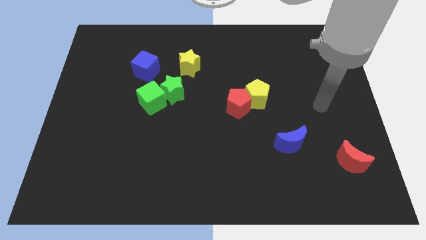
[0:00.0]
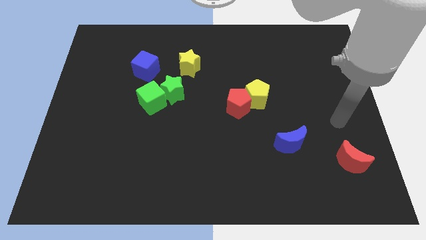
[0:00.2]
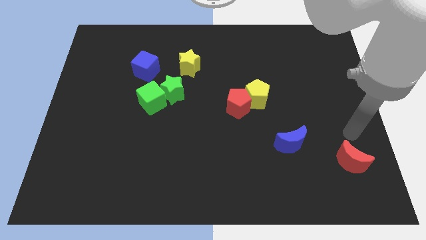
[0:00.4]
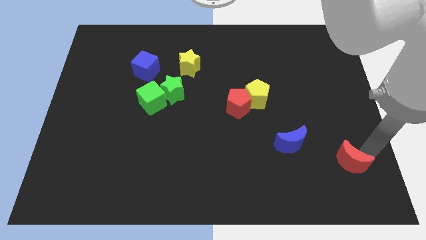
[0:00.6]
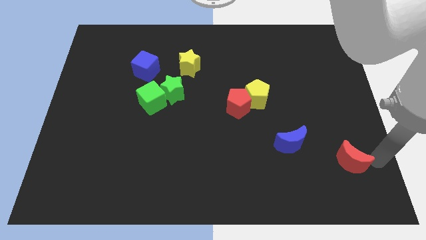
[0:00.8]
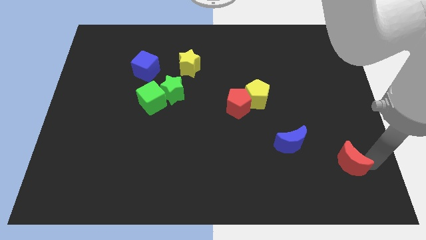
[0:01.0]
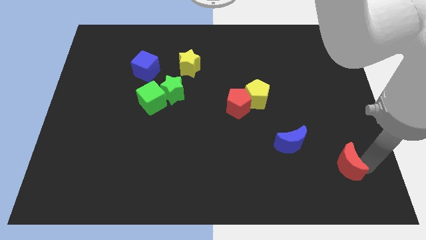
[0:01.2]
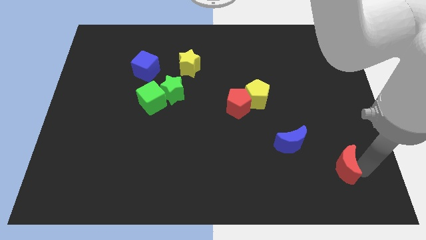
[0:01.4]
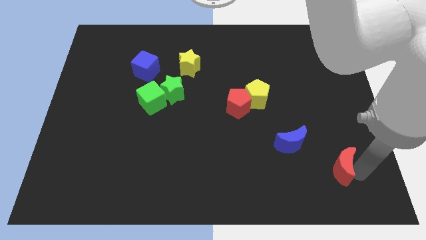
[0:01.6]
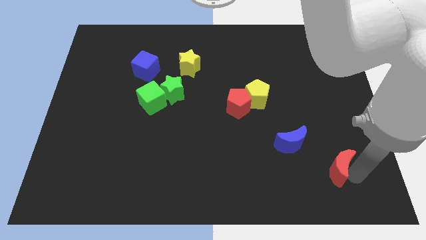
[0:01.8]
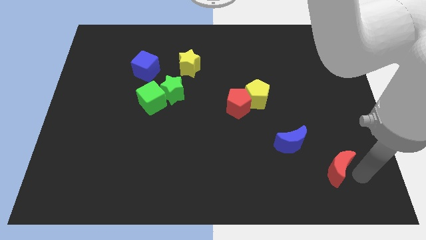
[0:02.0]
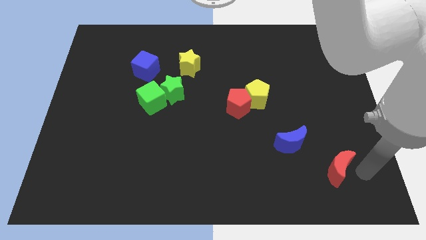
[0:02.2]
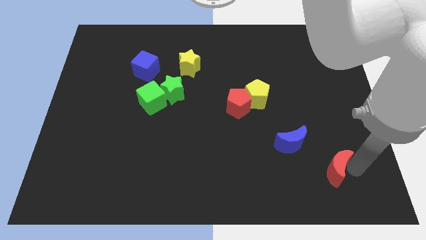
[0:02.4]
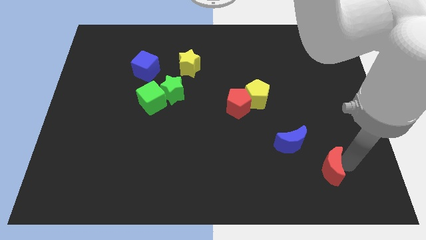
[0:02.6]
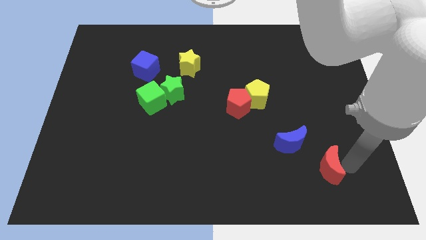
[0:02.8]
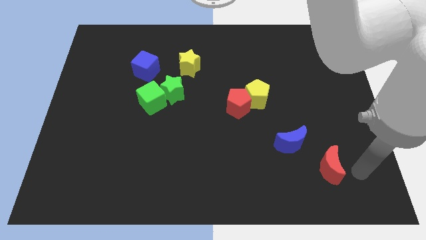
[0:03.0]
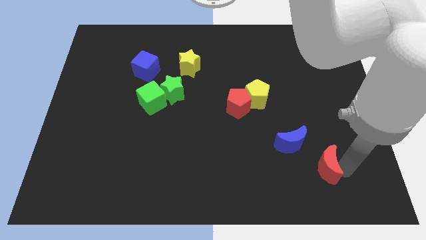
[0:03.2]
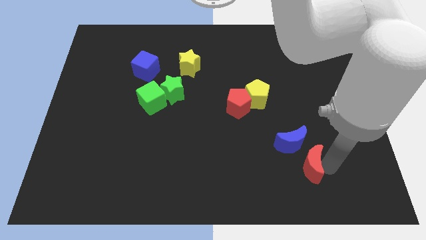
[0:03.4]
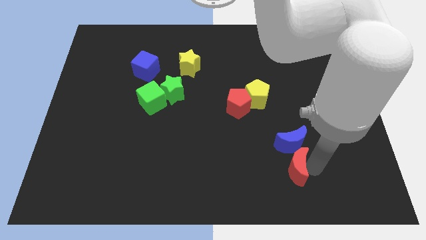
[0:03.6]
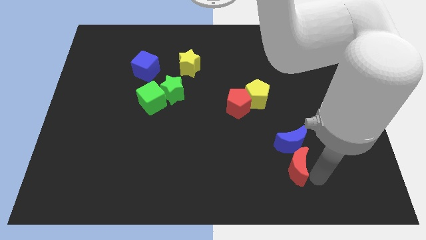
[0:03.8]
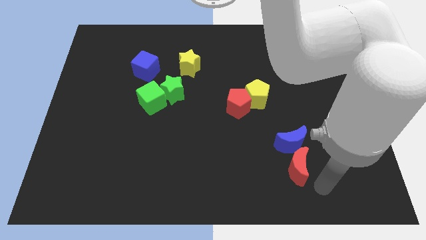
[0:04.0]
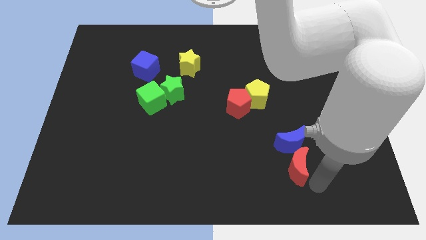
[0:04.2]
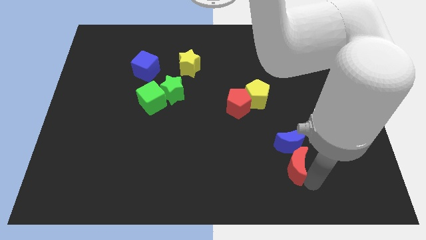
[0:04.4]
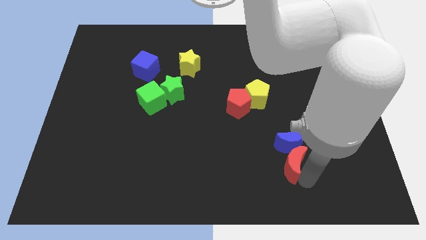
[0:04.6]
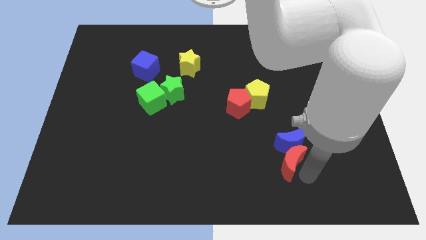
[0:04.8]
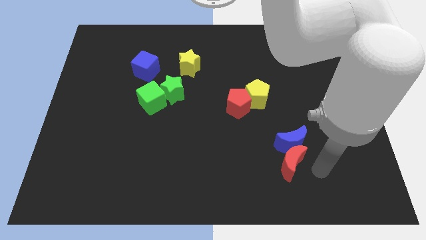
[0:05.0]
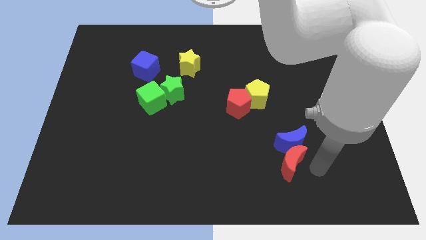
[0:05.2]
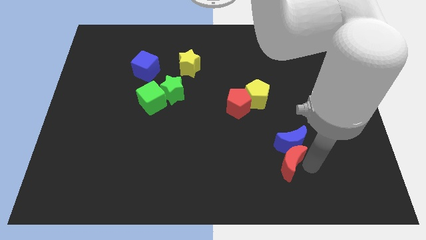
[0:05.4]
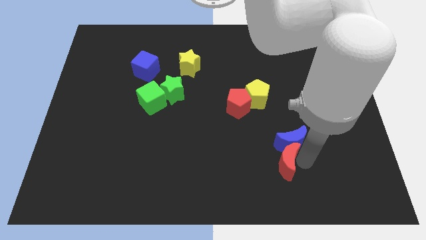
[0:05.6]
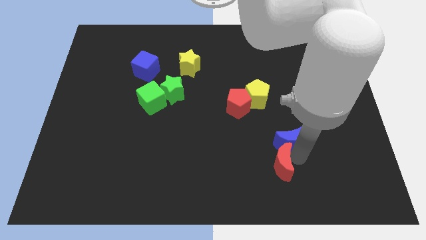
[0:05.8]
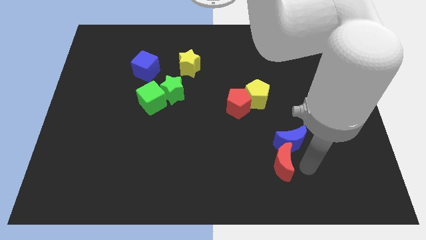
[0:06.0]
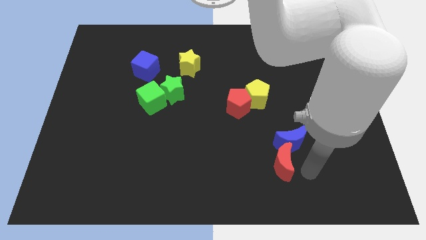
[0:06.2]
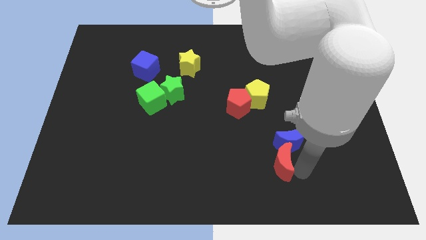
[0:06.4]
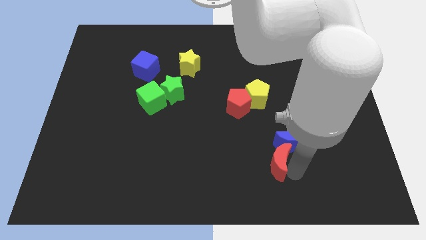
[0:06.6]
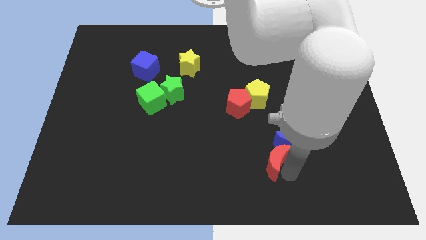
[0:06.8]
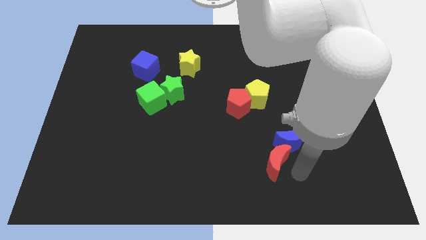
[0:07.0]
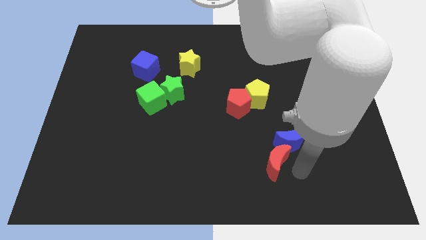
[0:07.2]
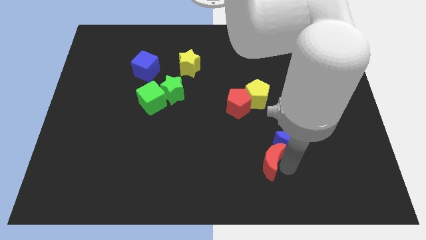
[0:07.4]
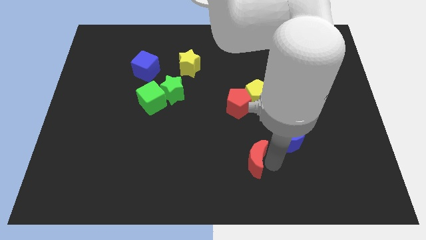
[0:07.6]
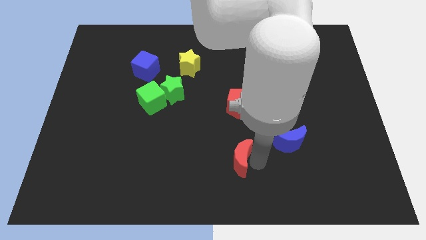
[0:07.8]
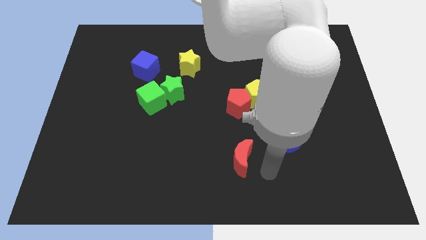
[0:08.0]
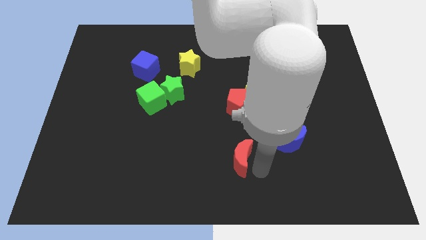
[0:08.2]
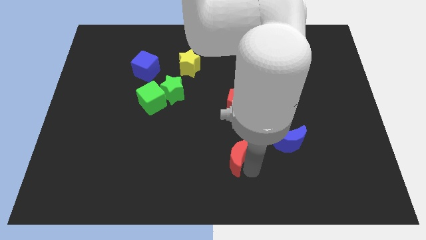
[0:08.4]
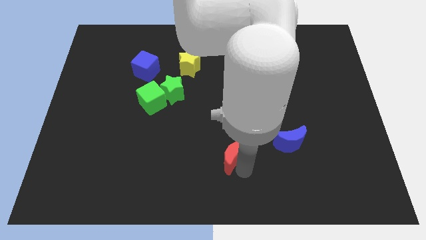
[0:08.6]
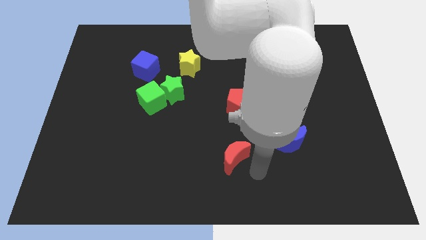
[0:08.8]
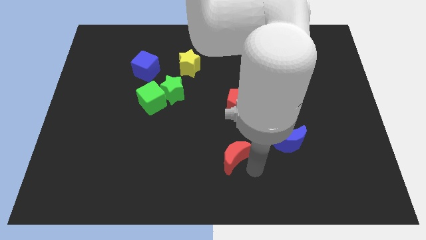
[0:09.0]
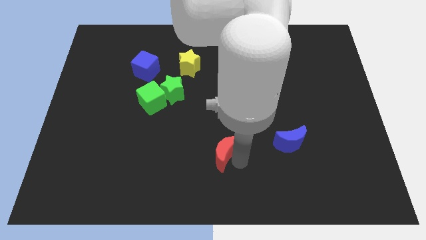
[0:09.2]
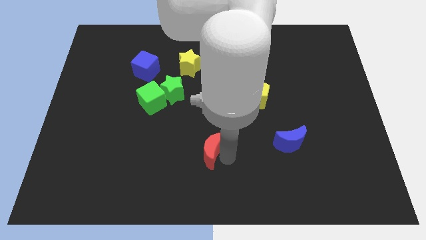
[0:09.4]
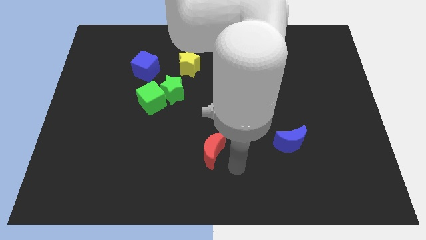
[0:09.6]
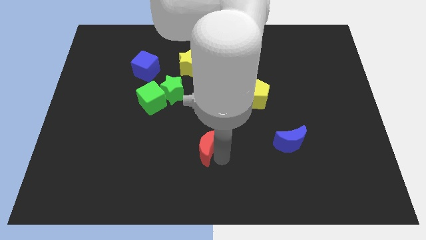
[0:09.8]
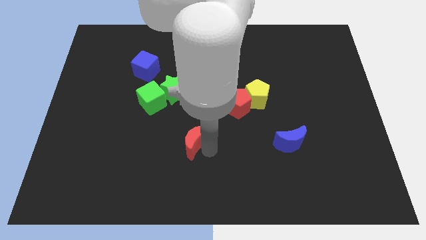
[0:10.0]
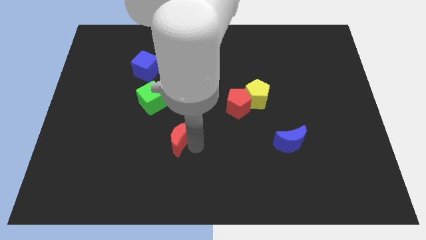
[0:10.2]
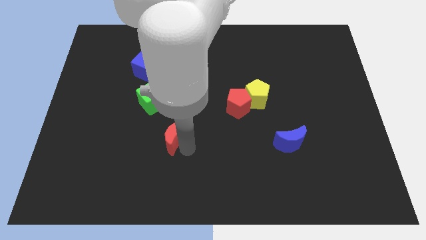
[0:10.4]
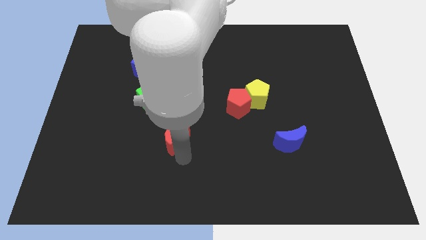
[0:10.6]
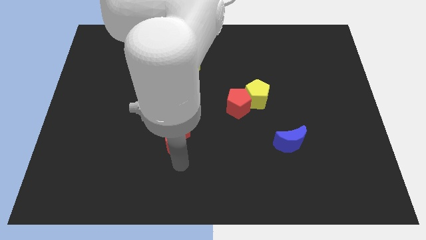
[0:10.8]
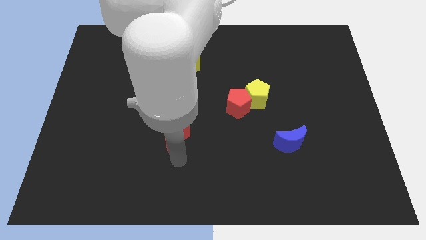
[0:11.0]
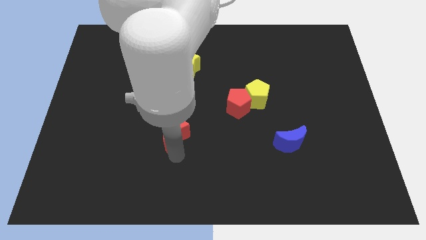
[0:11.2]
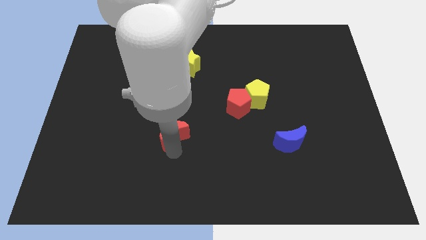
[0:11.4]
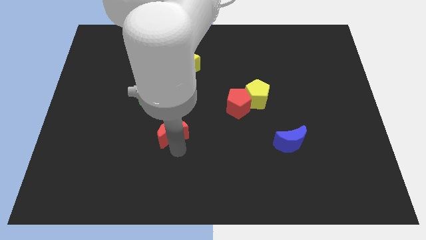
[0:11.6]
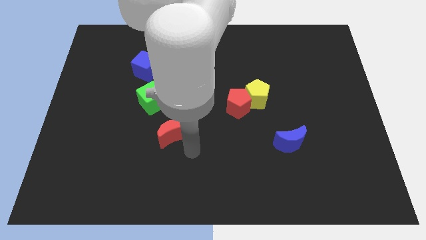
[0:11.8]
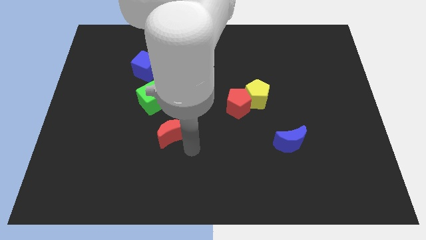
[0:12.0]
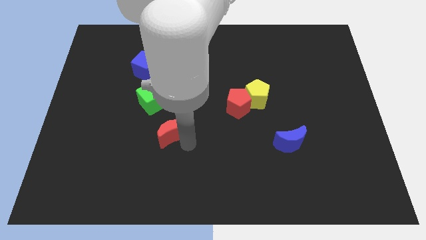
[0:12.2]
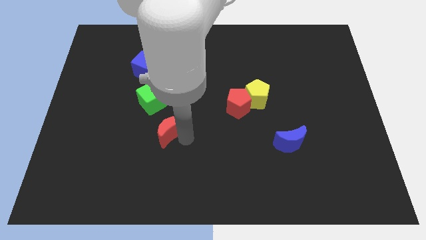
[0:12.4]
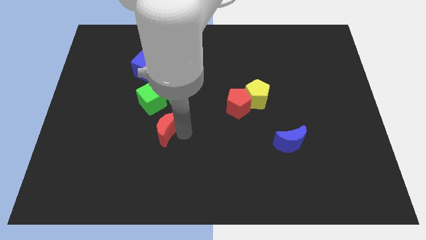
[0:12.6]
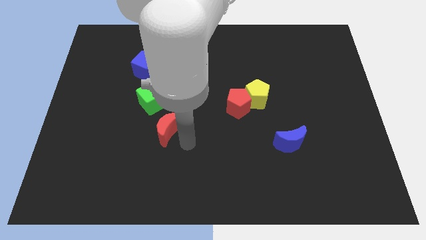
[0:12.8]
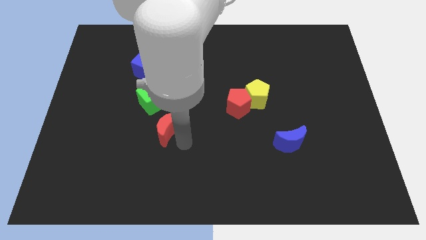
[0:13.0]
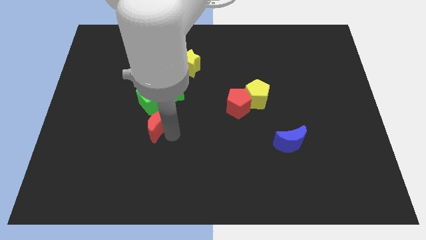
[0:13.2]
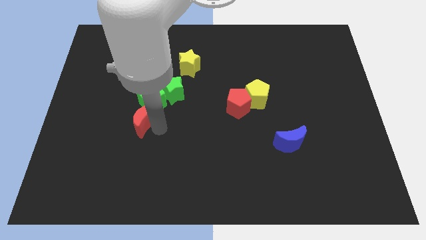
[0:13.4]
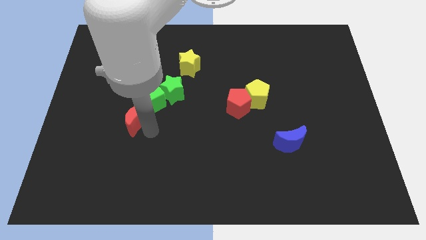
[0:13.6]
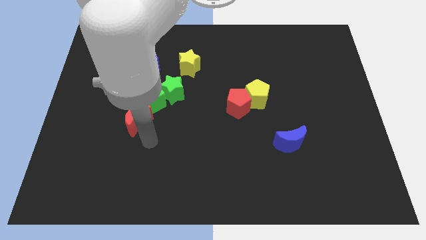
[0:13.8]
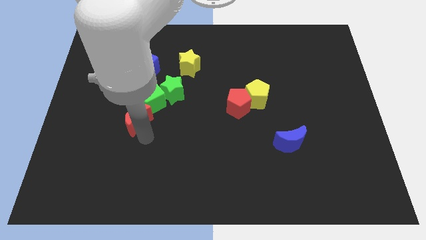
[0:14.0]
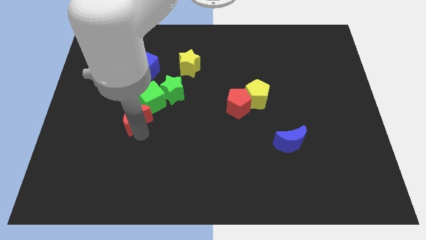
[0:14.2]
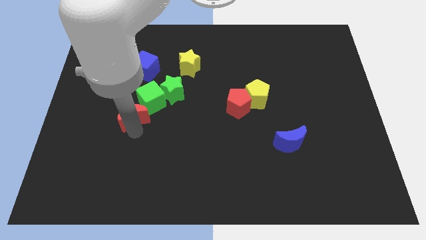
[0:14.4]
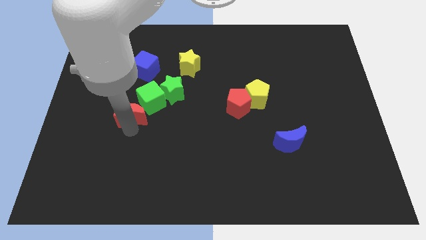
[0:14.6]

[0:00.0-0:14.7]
put the red moon left of the green cube
